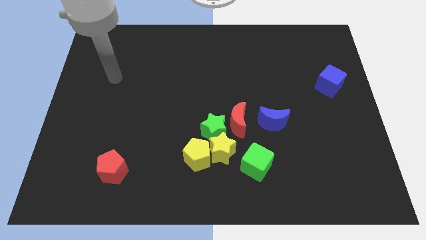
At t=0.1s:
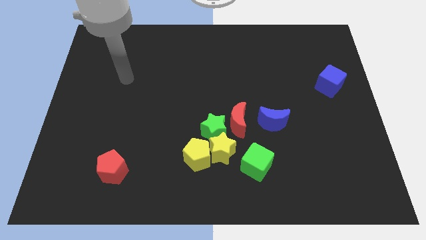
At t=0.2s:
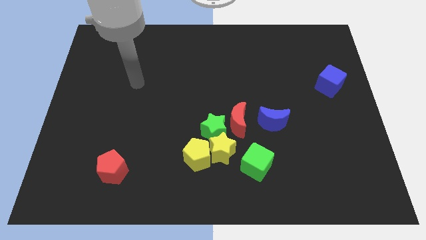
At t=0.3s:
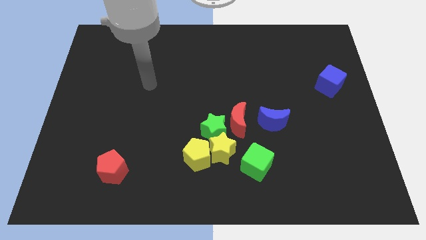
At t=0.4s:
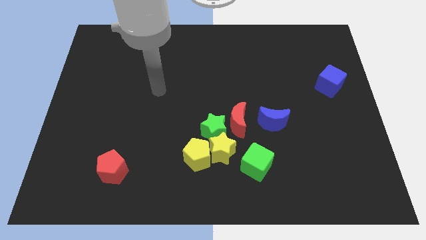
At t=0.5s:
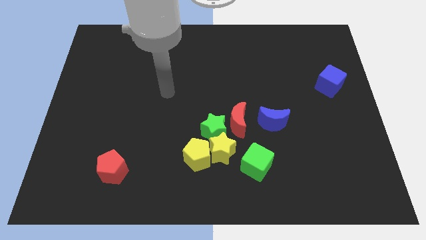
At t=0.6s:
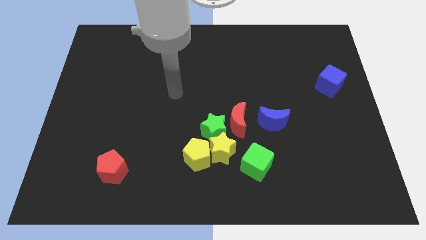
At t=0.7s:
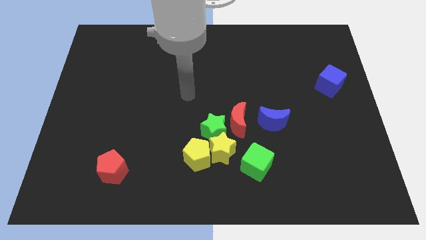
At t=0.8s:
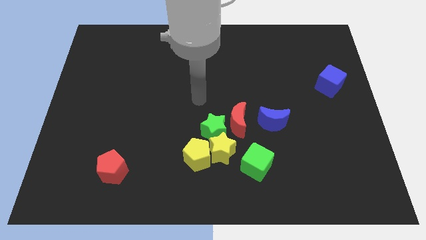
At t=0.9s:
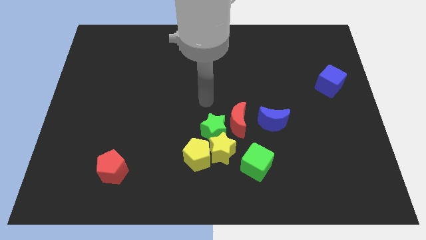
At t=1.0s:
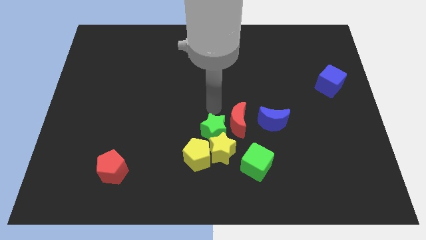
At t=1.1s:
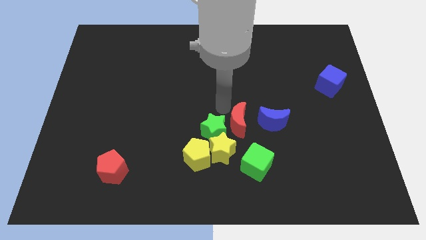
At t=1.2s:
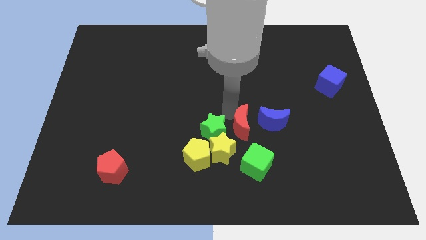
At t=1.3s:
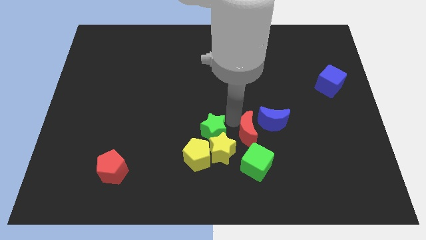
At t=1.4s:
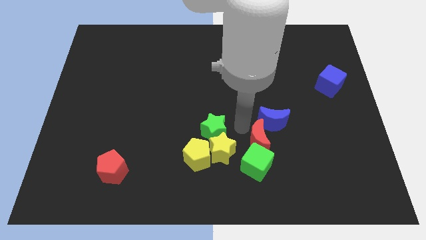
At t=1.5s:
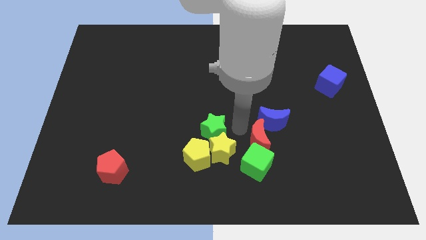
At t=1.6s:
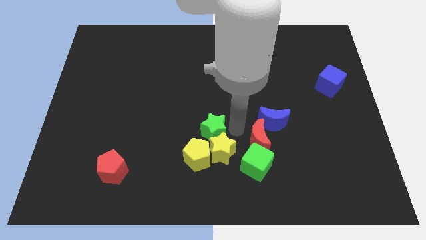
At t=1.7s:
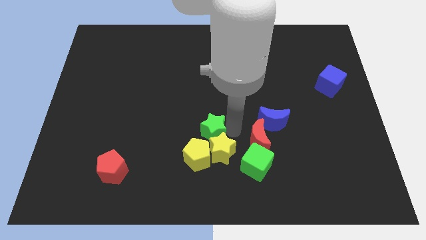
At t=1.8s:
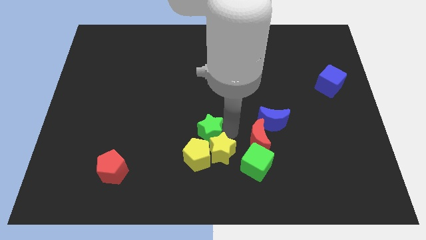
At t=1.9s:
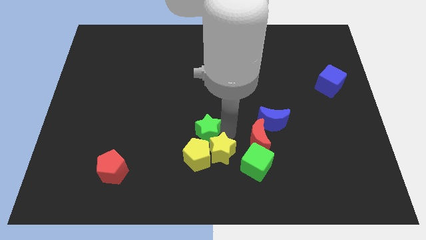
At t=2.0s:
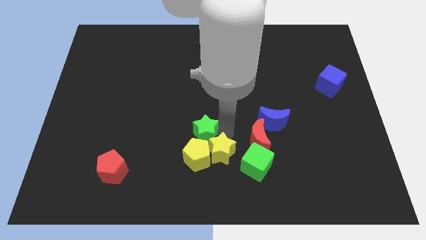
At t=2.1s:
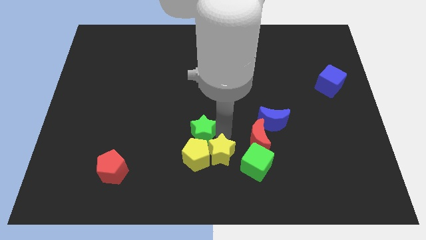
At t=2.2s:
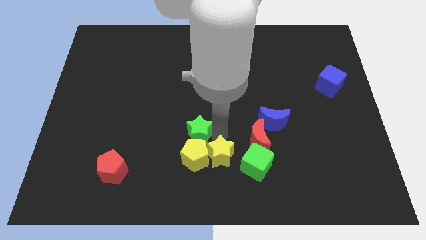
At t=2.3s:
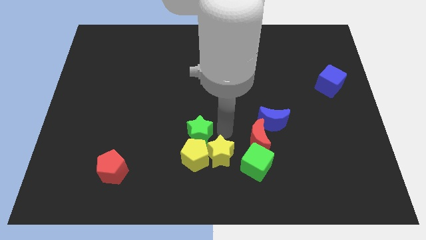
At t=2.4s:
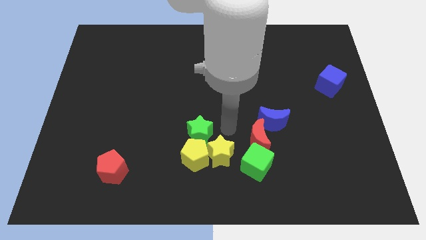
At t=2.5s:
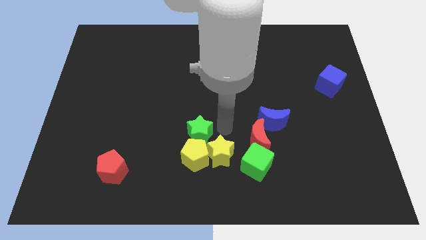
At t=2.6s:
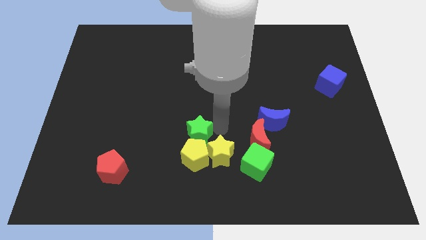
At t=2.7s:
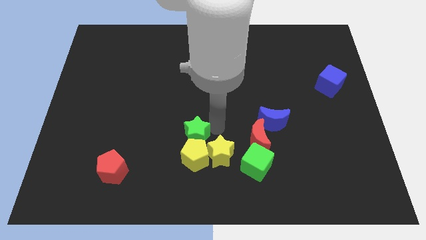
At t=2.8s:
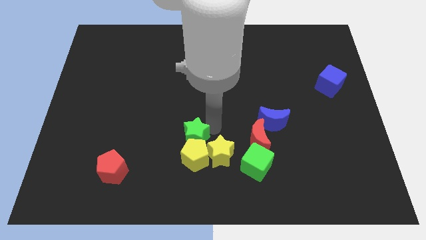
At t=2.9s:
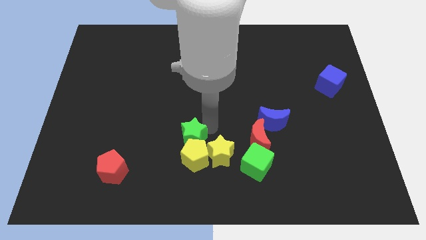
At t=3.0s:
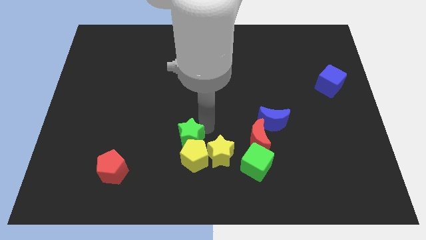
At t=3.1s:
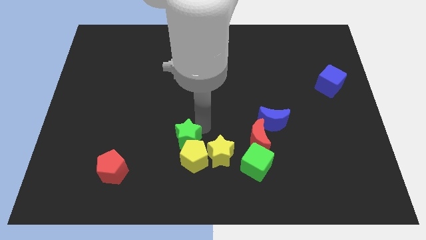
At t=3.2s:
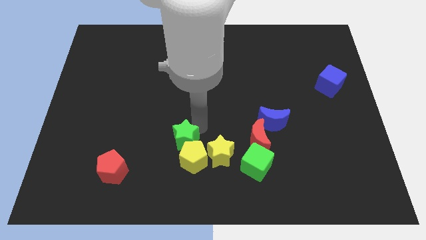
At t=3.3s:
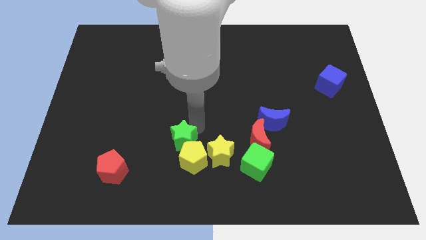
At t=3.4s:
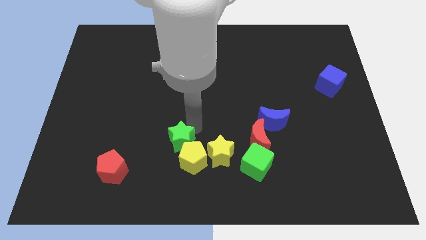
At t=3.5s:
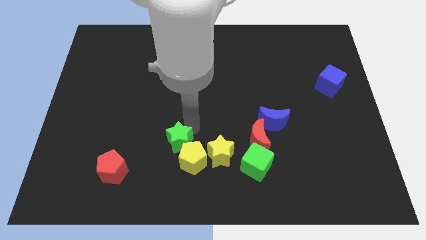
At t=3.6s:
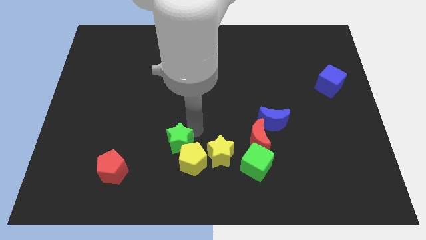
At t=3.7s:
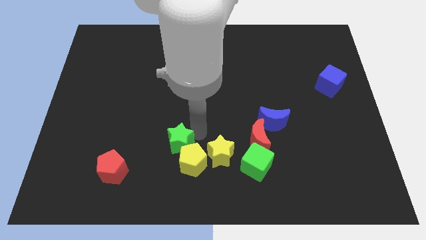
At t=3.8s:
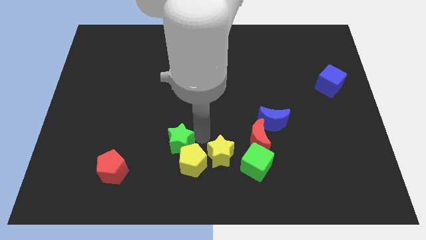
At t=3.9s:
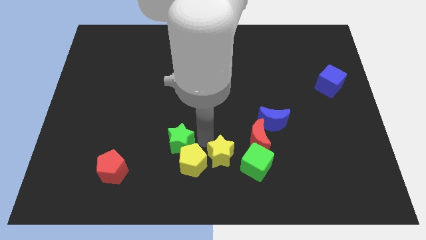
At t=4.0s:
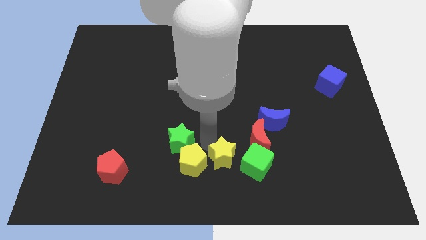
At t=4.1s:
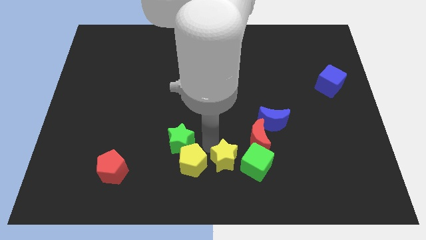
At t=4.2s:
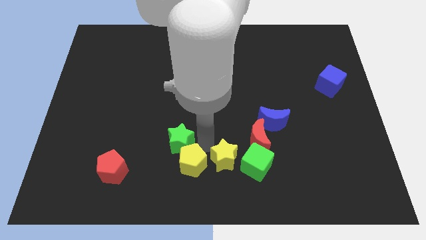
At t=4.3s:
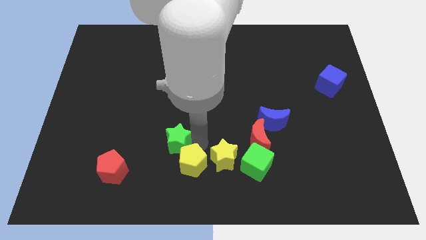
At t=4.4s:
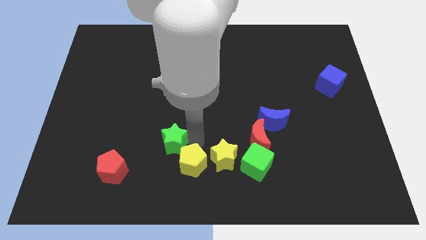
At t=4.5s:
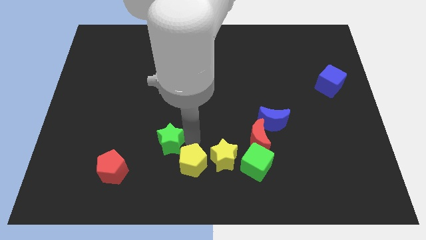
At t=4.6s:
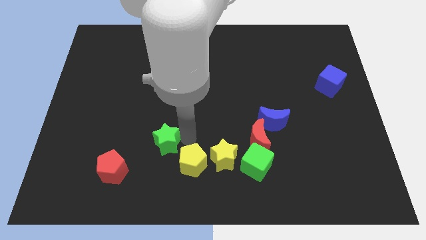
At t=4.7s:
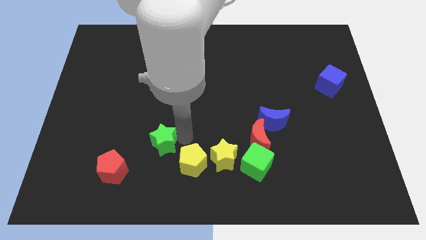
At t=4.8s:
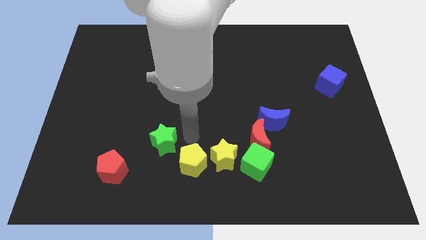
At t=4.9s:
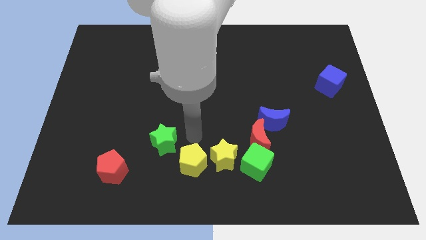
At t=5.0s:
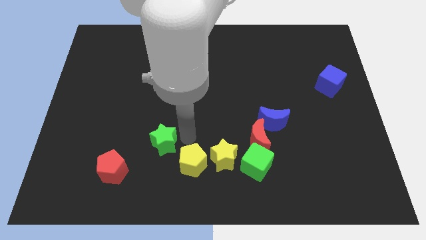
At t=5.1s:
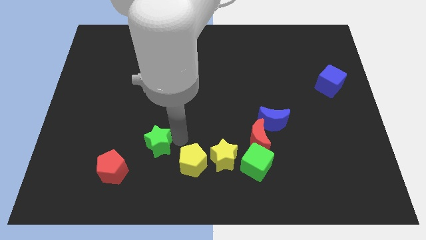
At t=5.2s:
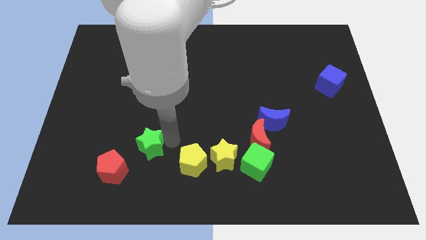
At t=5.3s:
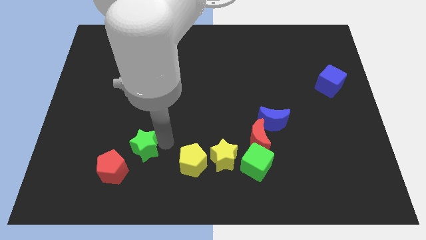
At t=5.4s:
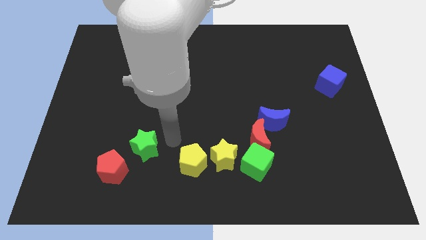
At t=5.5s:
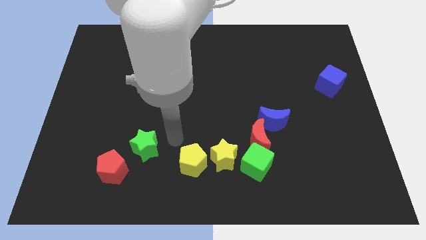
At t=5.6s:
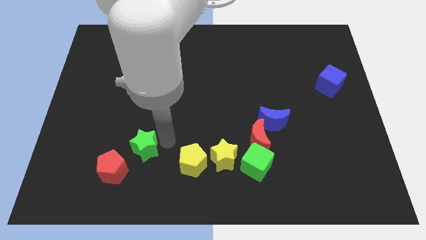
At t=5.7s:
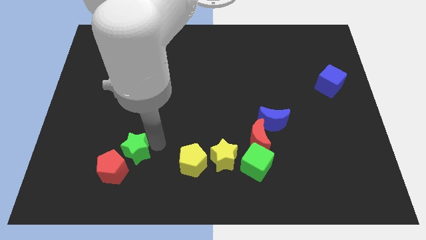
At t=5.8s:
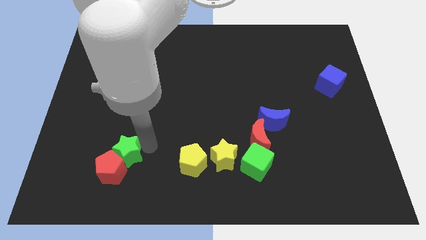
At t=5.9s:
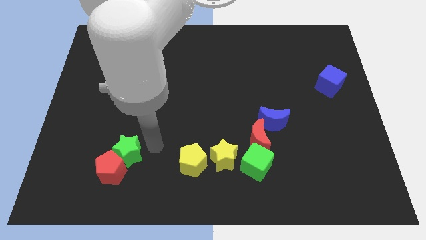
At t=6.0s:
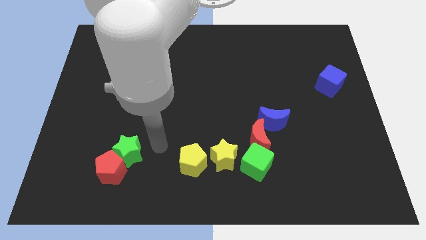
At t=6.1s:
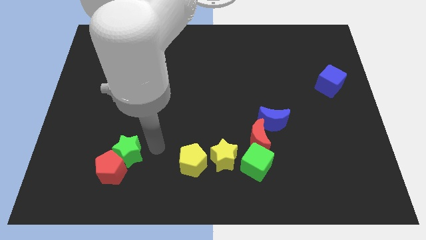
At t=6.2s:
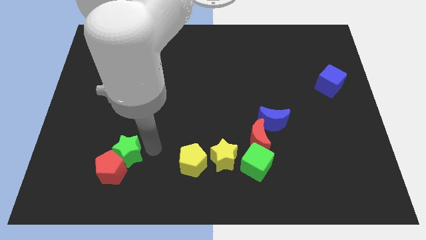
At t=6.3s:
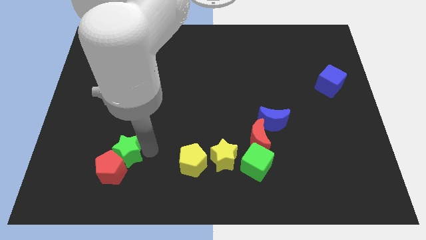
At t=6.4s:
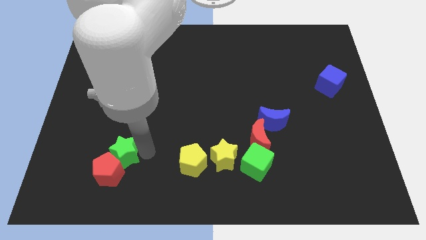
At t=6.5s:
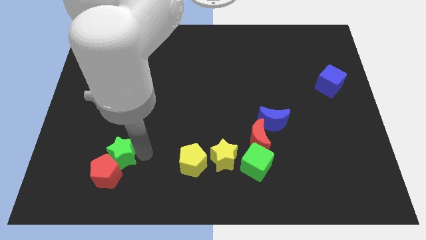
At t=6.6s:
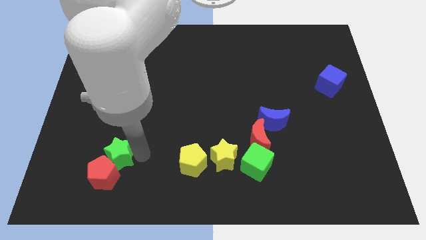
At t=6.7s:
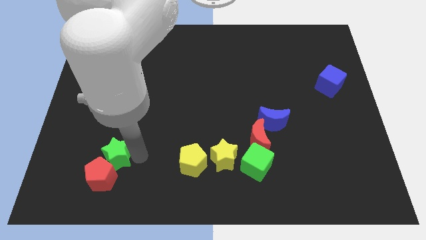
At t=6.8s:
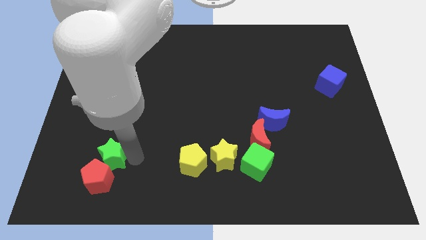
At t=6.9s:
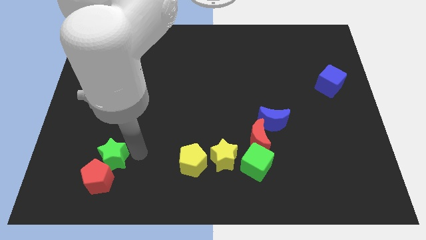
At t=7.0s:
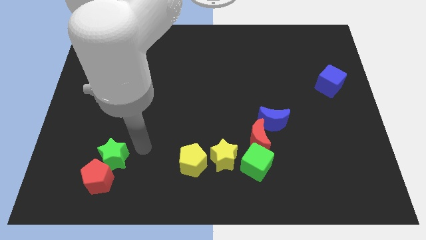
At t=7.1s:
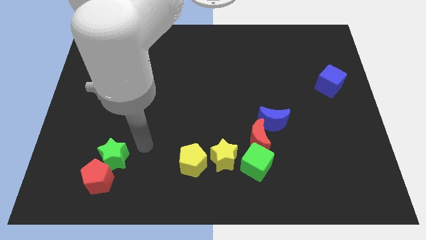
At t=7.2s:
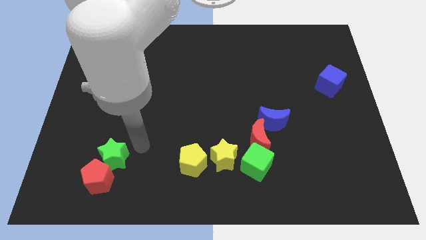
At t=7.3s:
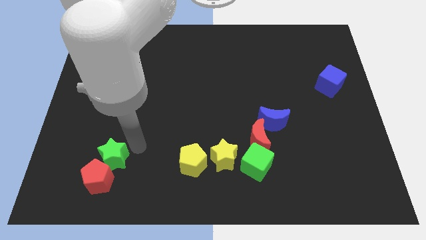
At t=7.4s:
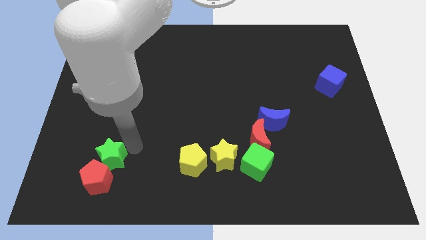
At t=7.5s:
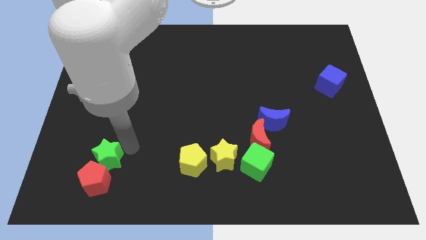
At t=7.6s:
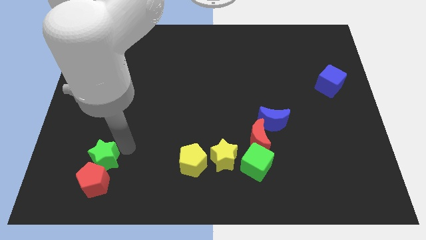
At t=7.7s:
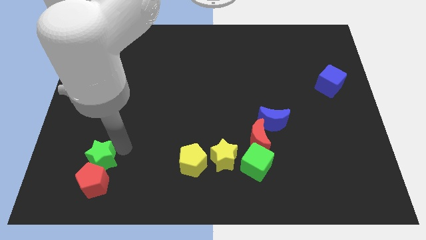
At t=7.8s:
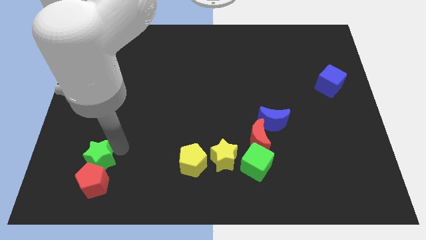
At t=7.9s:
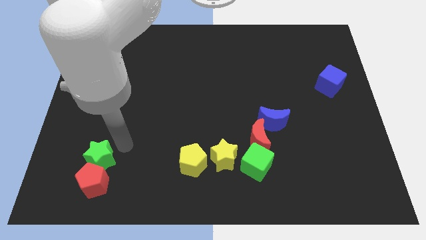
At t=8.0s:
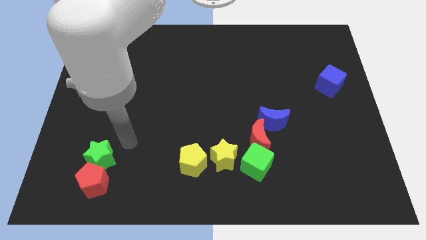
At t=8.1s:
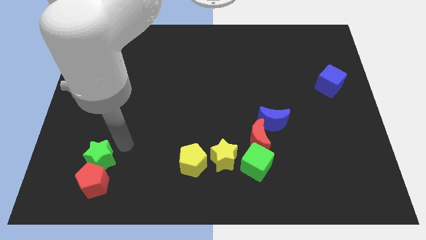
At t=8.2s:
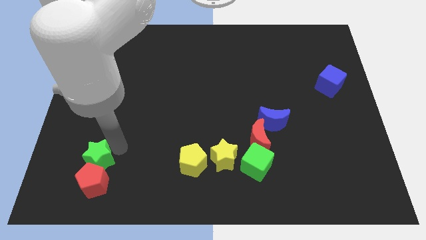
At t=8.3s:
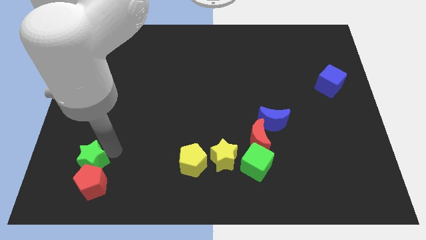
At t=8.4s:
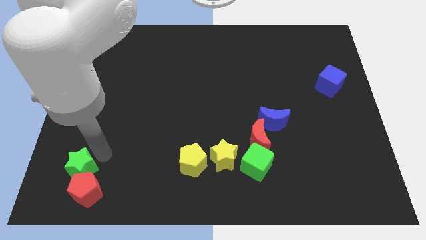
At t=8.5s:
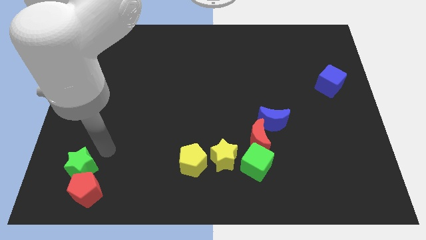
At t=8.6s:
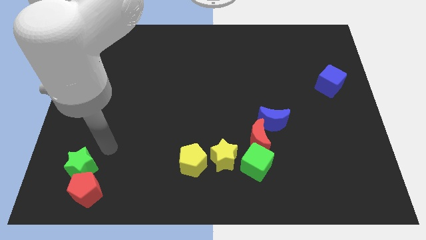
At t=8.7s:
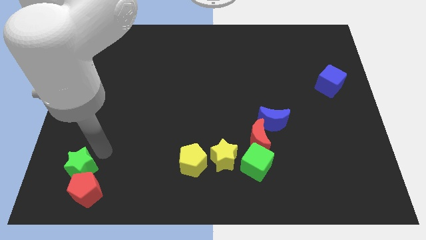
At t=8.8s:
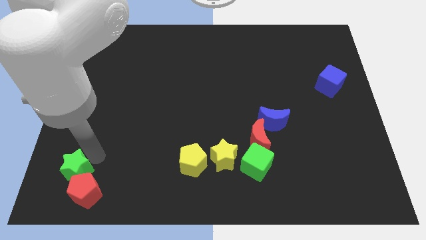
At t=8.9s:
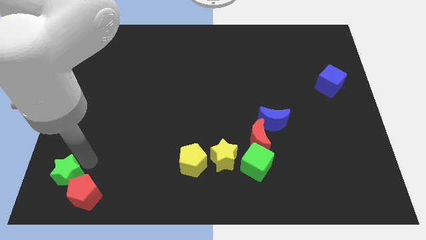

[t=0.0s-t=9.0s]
push the green star to the lower left corner
